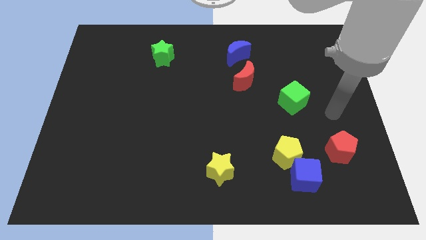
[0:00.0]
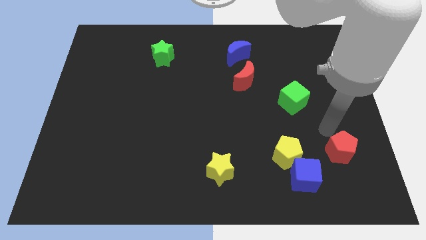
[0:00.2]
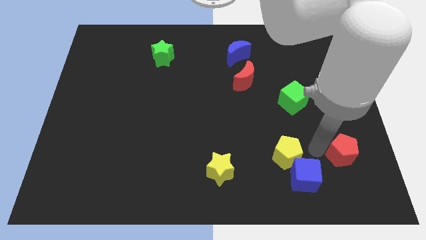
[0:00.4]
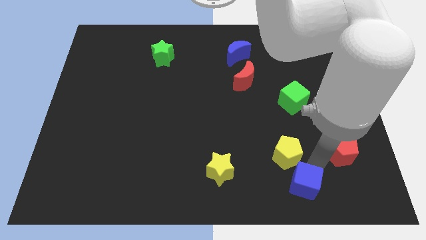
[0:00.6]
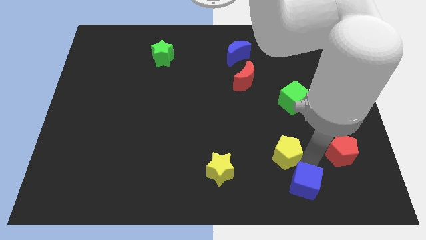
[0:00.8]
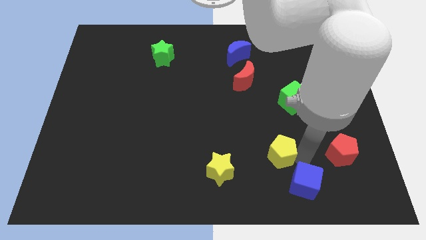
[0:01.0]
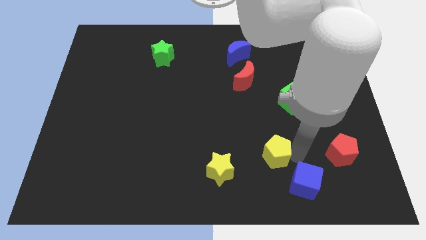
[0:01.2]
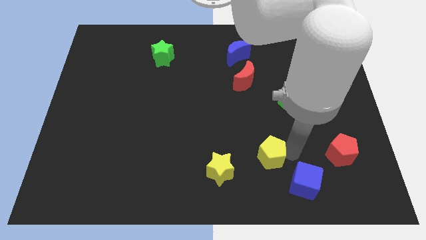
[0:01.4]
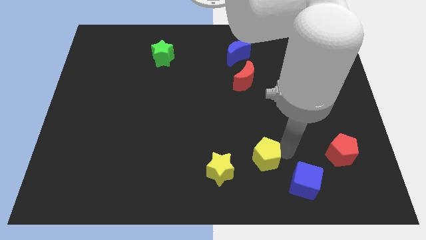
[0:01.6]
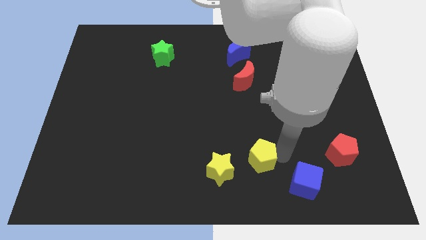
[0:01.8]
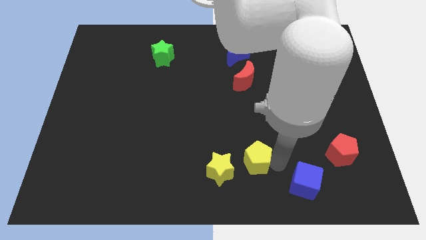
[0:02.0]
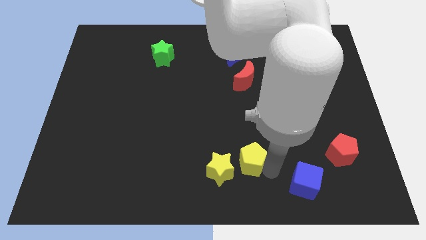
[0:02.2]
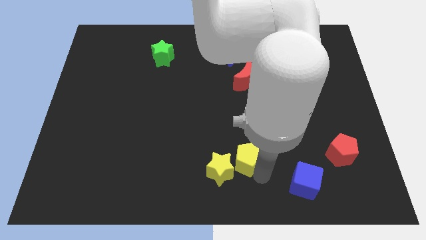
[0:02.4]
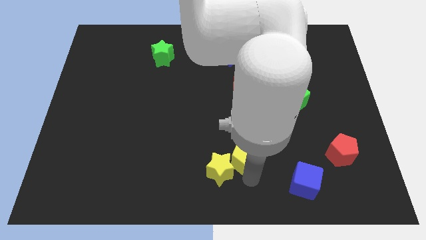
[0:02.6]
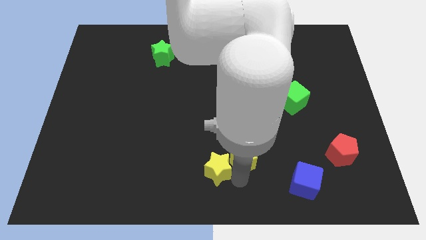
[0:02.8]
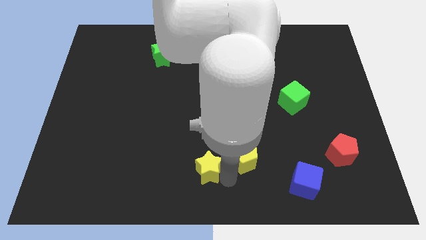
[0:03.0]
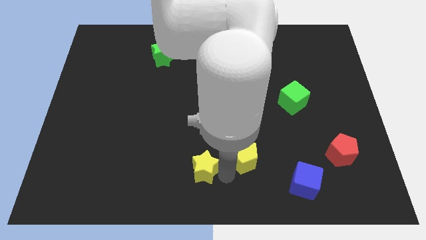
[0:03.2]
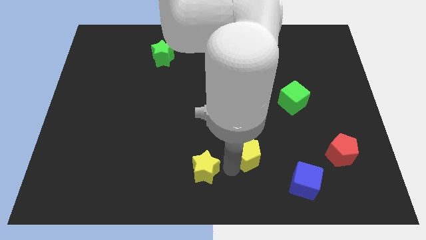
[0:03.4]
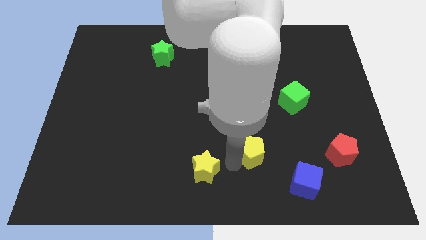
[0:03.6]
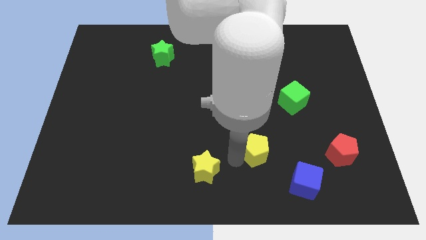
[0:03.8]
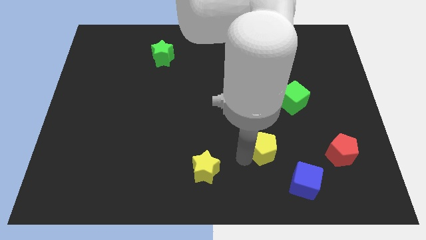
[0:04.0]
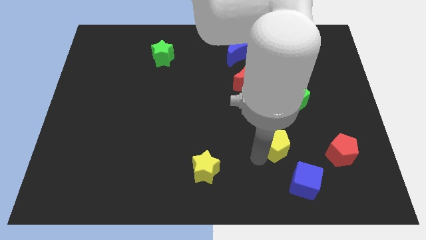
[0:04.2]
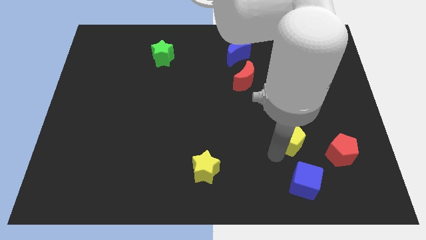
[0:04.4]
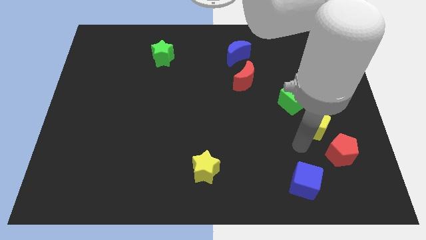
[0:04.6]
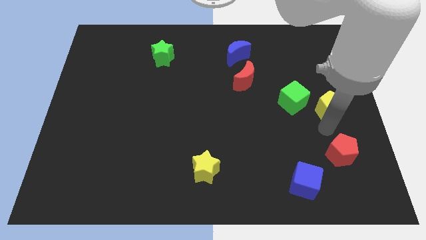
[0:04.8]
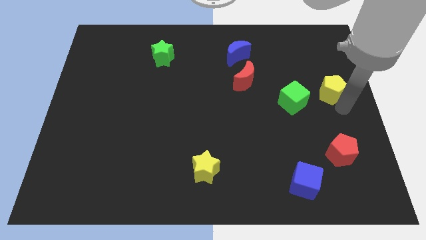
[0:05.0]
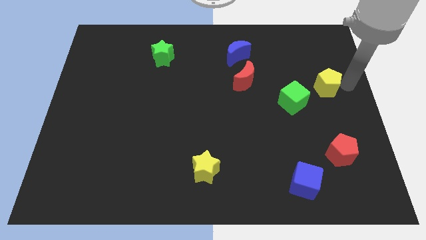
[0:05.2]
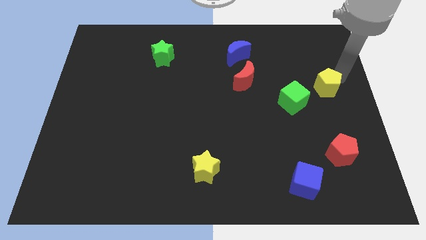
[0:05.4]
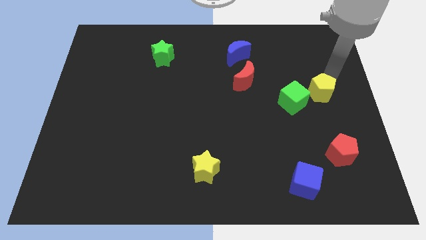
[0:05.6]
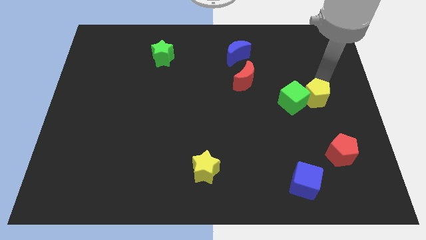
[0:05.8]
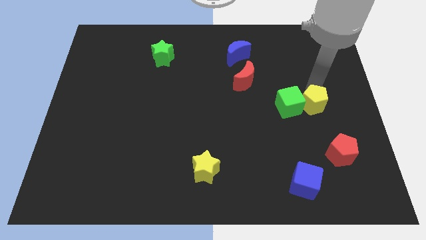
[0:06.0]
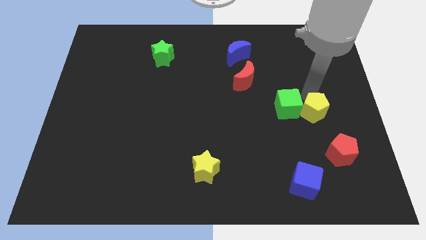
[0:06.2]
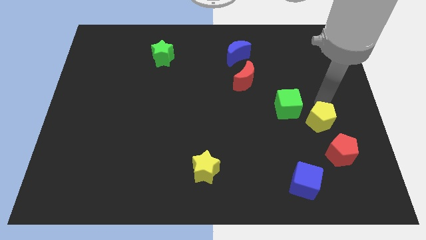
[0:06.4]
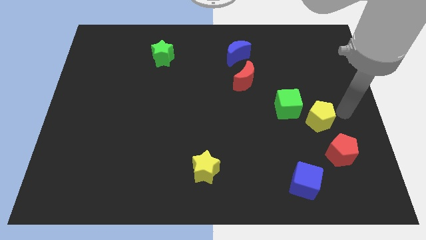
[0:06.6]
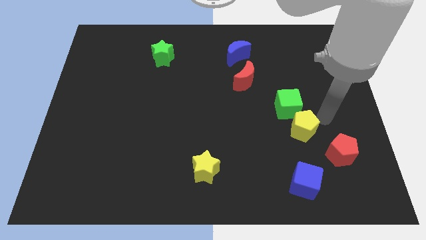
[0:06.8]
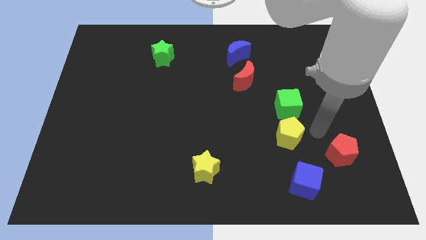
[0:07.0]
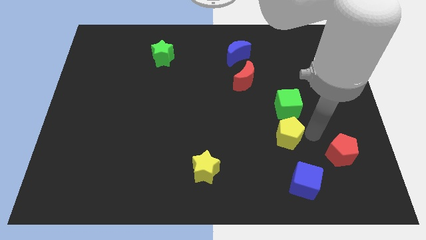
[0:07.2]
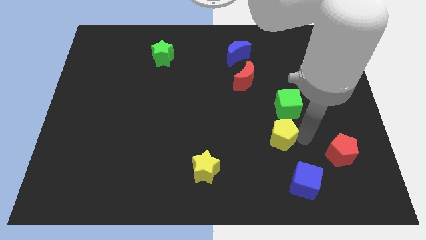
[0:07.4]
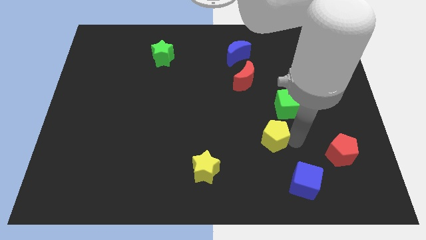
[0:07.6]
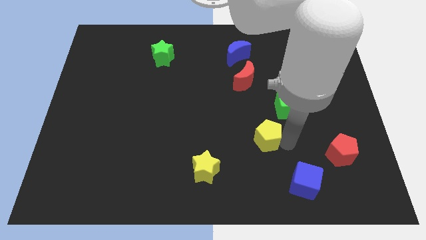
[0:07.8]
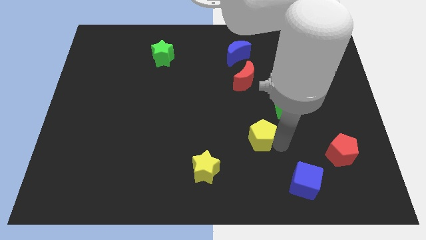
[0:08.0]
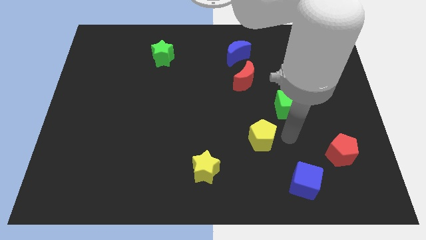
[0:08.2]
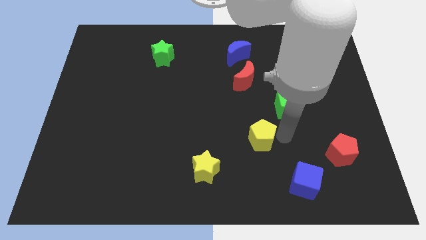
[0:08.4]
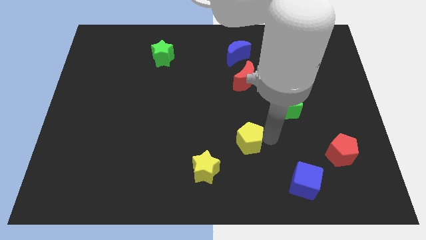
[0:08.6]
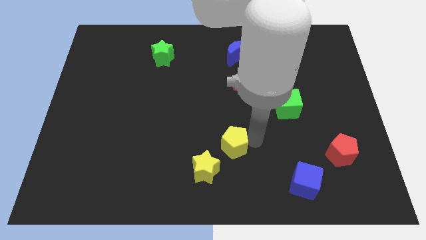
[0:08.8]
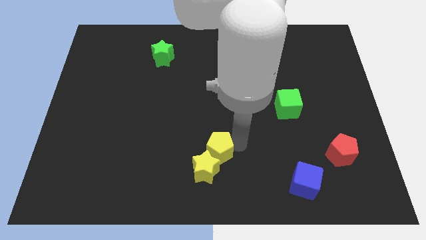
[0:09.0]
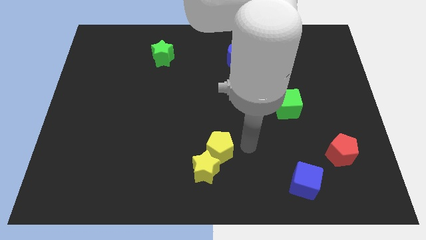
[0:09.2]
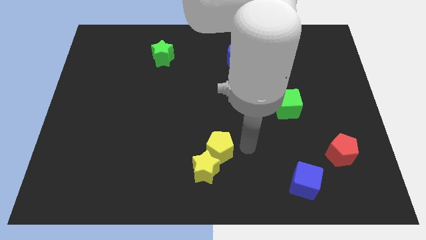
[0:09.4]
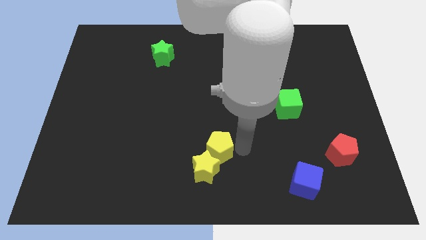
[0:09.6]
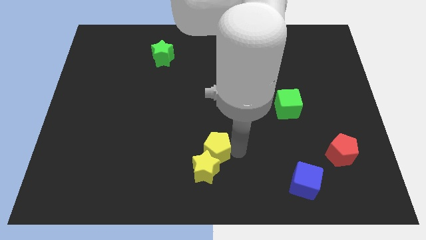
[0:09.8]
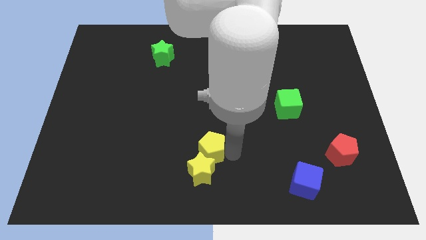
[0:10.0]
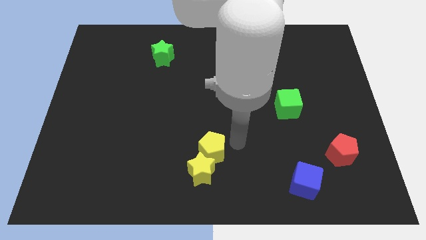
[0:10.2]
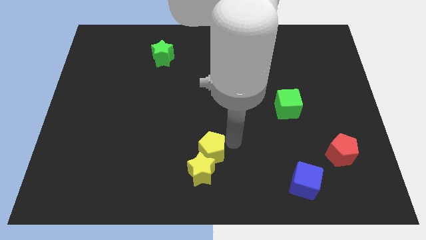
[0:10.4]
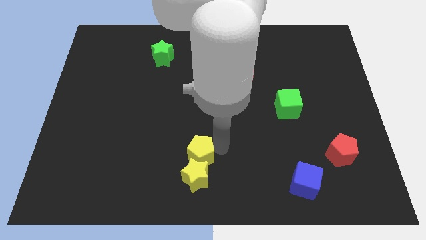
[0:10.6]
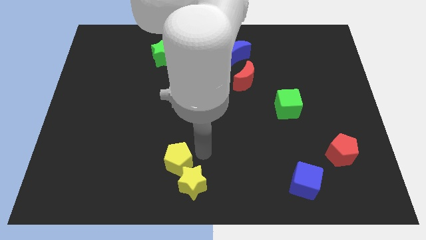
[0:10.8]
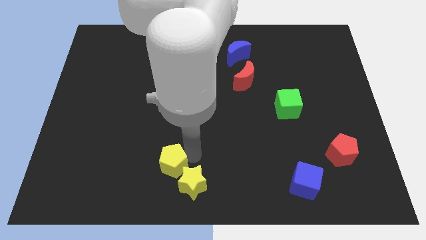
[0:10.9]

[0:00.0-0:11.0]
slide the yellow pentagon left of the yellow star

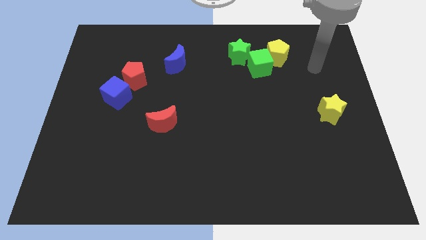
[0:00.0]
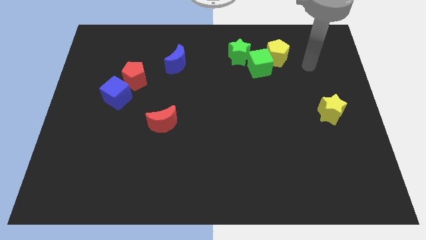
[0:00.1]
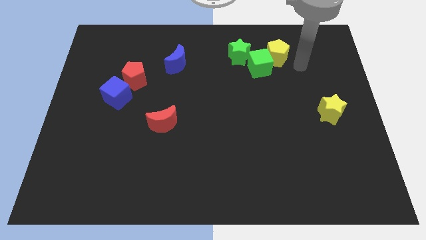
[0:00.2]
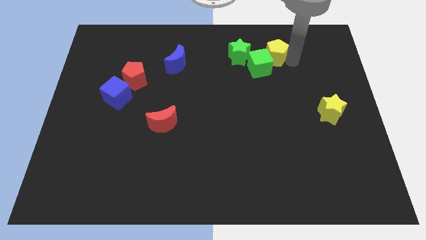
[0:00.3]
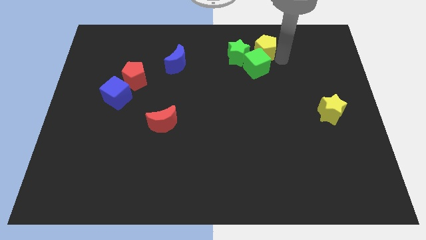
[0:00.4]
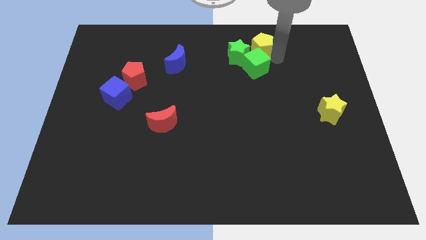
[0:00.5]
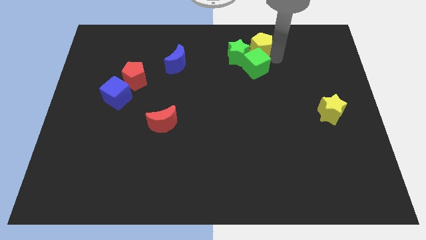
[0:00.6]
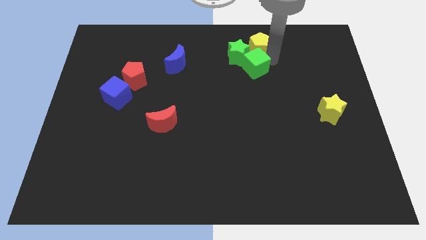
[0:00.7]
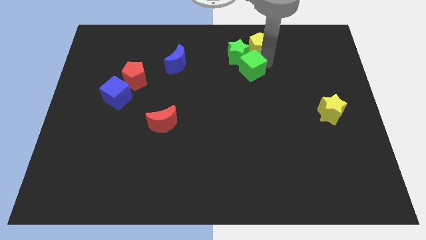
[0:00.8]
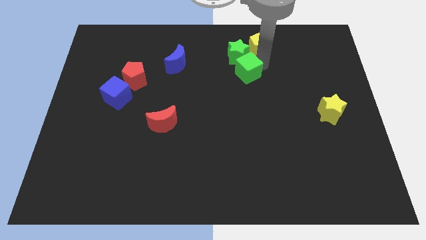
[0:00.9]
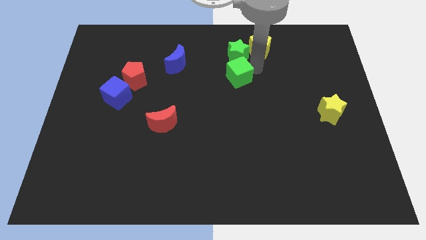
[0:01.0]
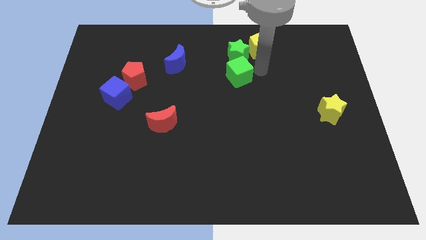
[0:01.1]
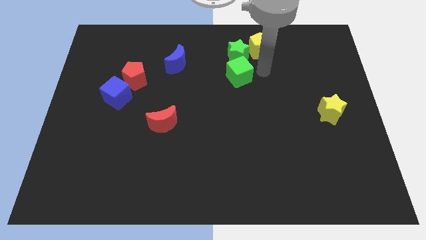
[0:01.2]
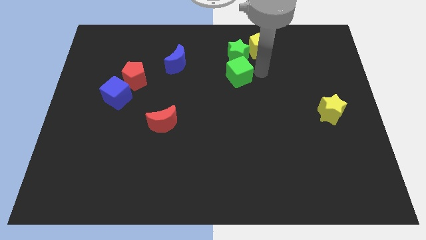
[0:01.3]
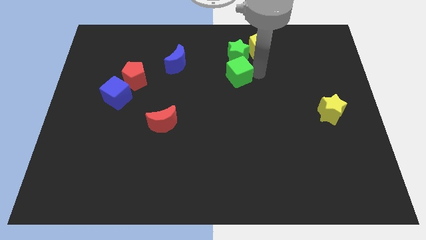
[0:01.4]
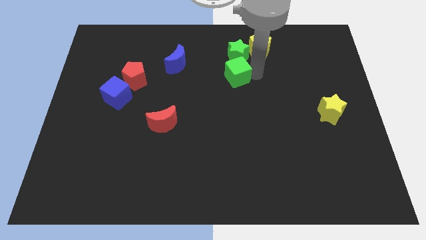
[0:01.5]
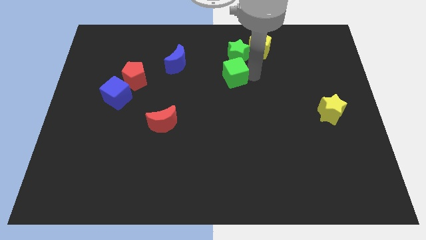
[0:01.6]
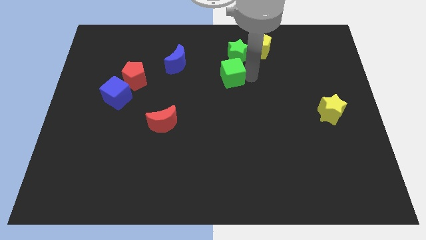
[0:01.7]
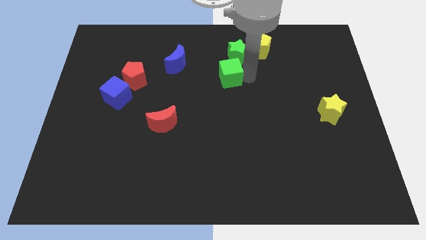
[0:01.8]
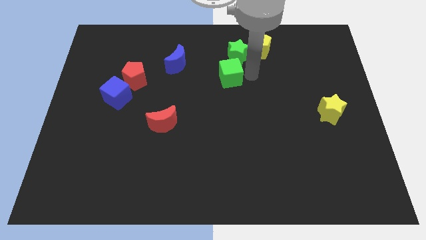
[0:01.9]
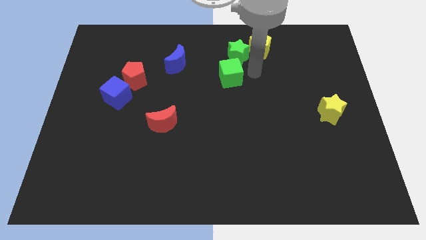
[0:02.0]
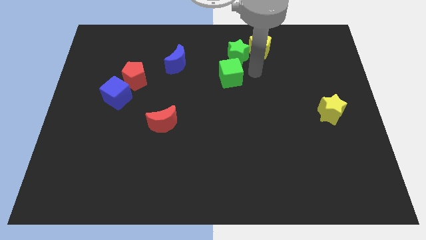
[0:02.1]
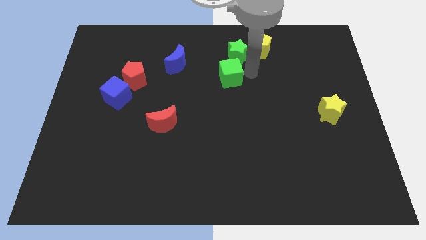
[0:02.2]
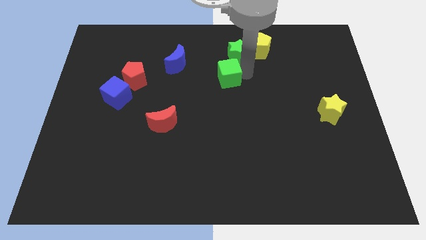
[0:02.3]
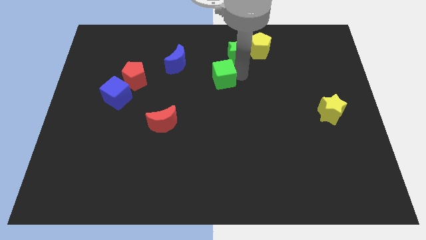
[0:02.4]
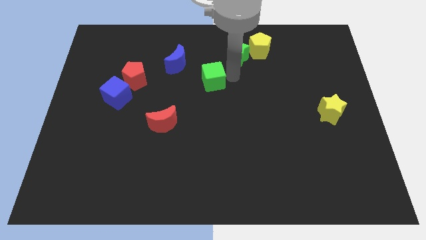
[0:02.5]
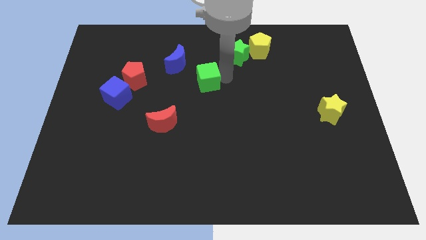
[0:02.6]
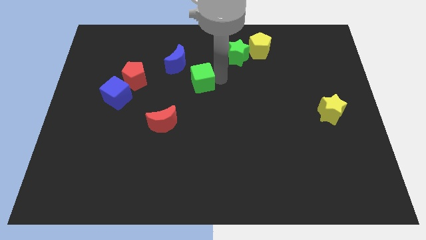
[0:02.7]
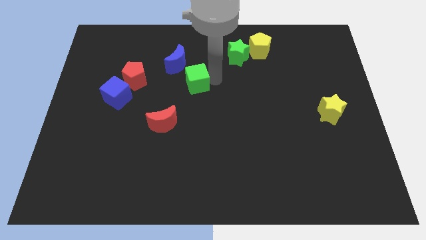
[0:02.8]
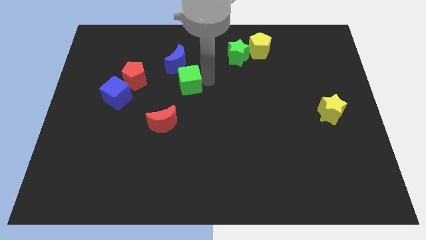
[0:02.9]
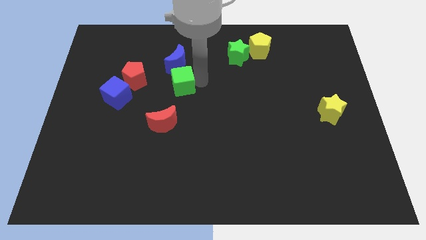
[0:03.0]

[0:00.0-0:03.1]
put the green cube above the red moon
